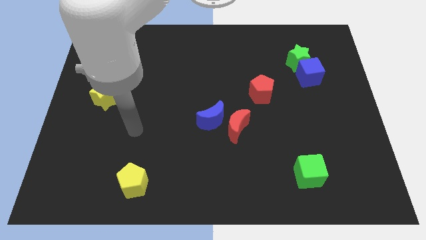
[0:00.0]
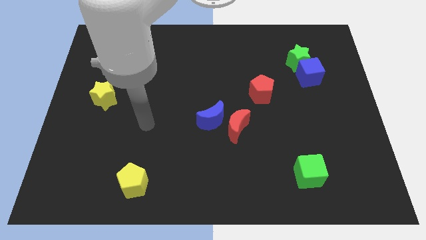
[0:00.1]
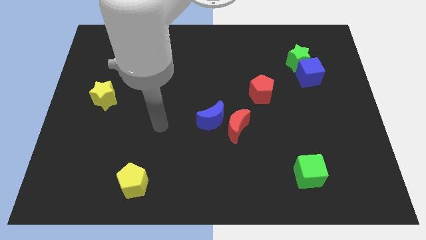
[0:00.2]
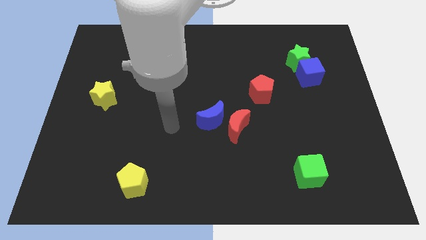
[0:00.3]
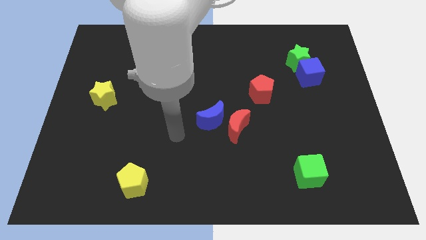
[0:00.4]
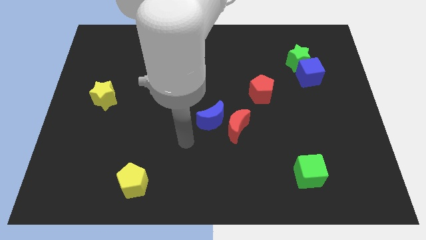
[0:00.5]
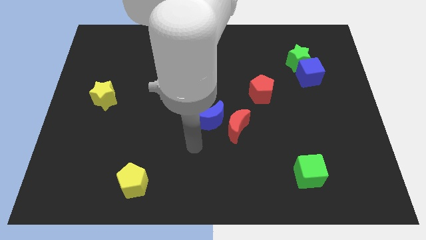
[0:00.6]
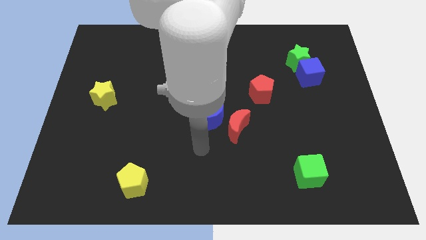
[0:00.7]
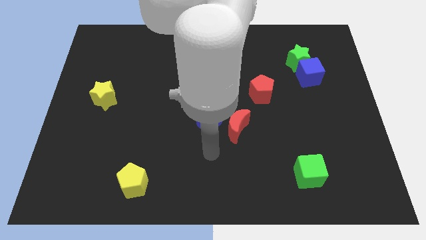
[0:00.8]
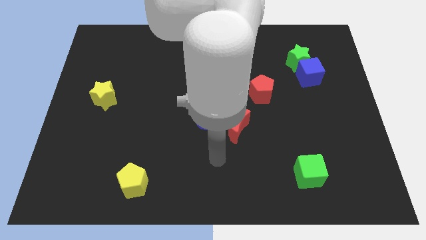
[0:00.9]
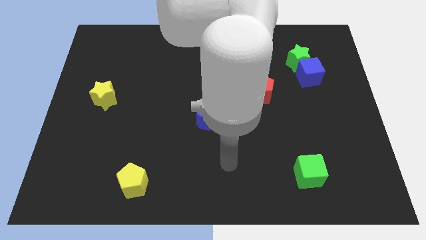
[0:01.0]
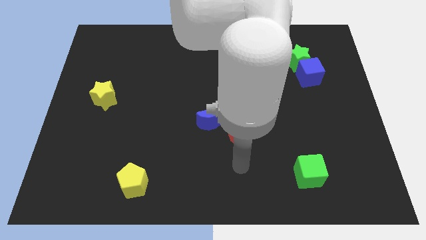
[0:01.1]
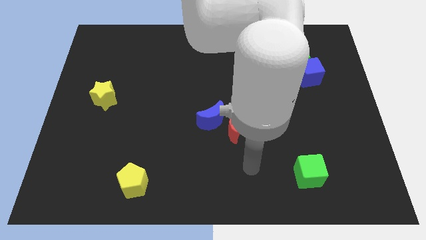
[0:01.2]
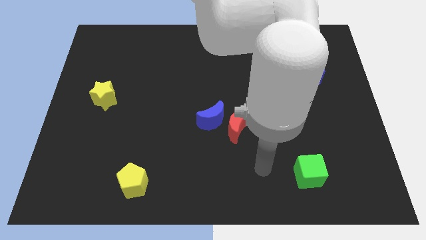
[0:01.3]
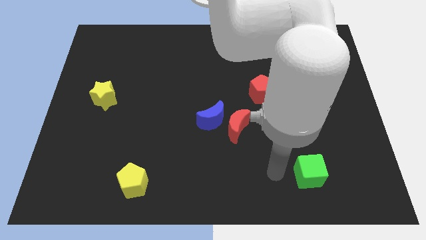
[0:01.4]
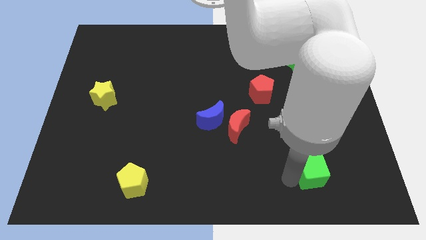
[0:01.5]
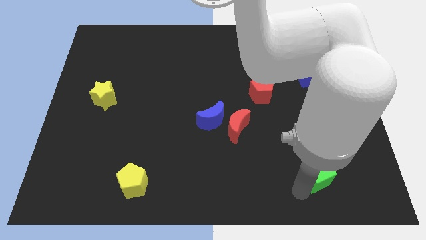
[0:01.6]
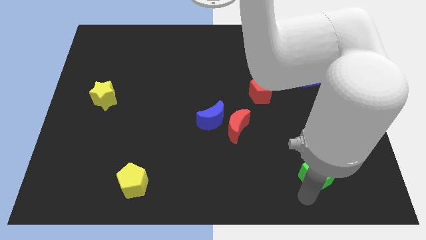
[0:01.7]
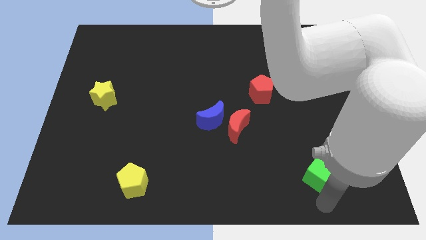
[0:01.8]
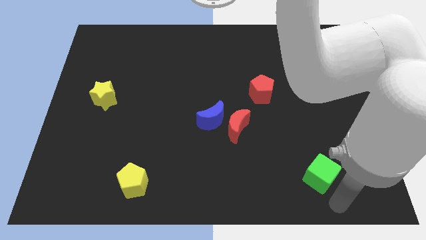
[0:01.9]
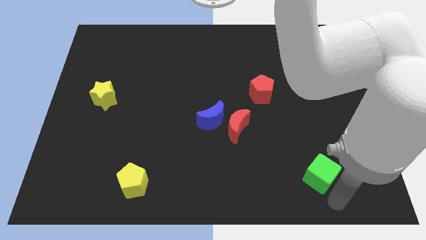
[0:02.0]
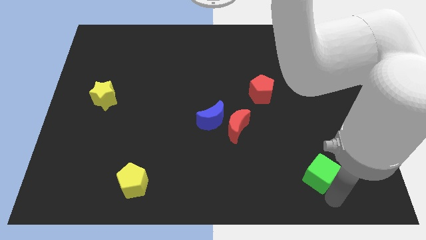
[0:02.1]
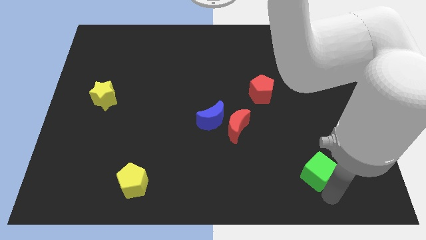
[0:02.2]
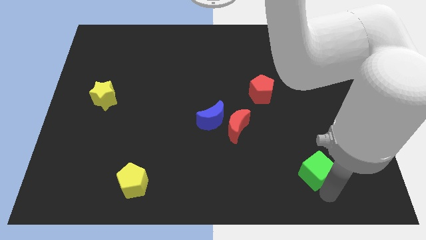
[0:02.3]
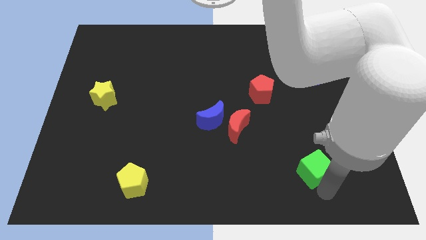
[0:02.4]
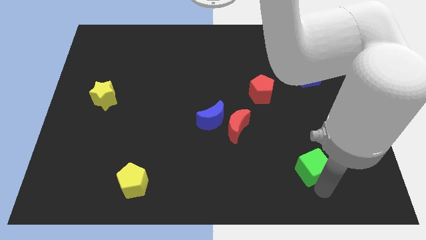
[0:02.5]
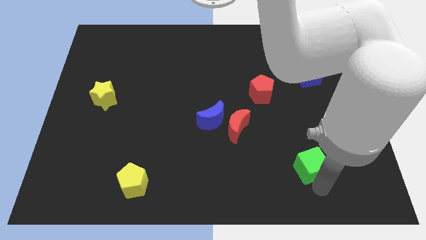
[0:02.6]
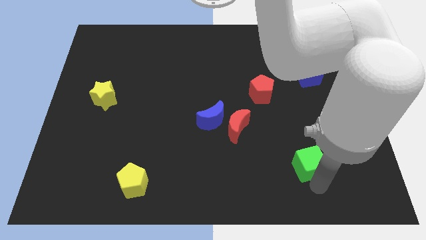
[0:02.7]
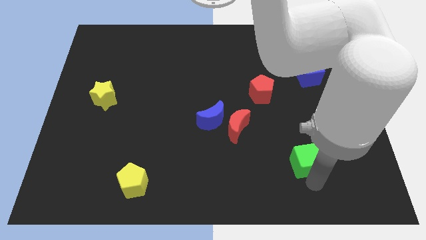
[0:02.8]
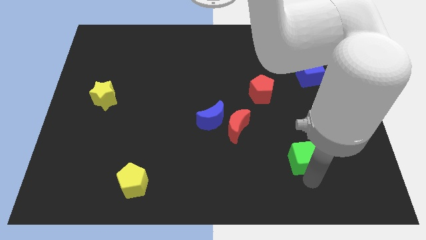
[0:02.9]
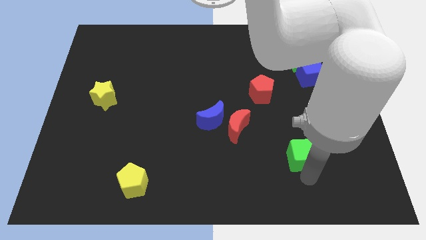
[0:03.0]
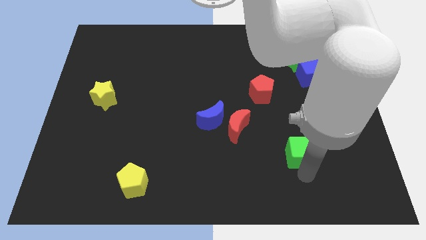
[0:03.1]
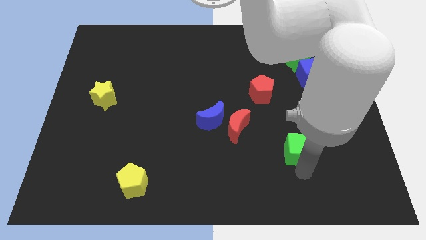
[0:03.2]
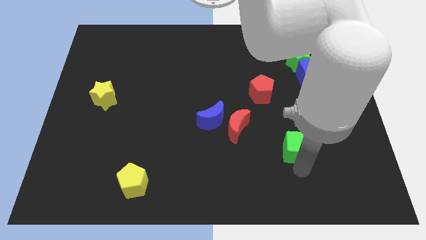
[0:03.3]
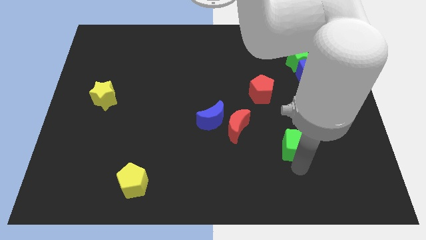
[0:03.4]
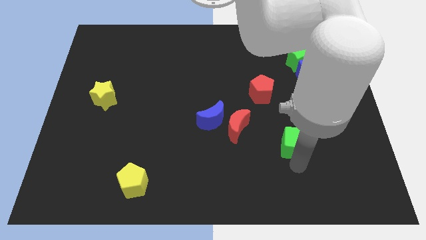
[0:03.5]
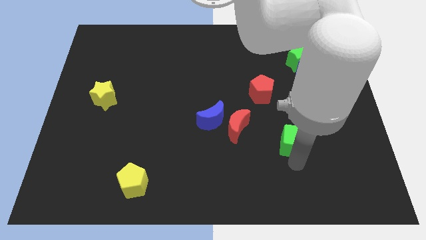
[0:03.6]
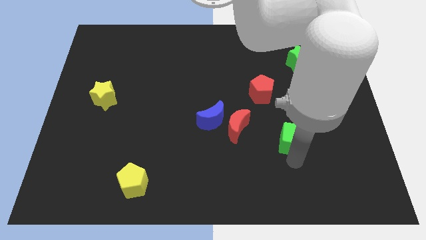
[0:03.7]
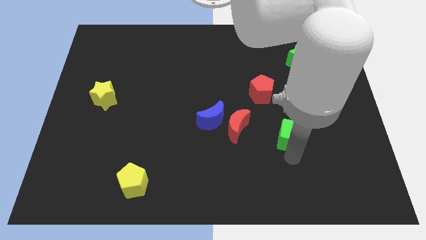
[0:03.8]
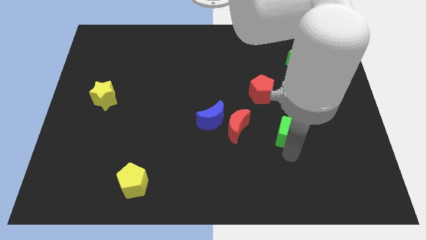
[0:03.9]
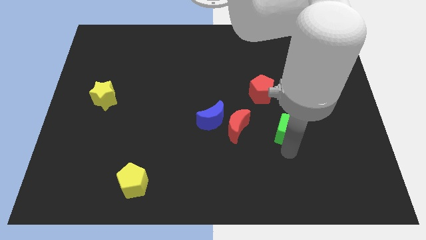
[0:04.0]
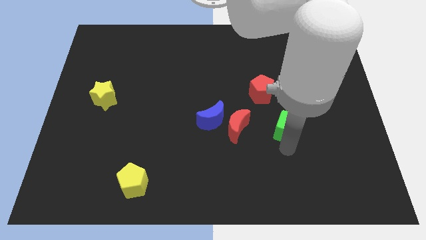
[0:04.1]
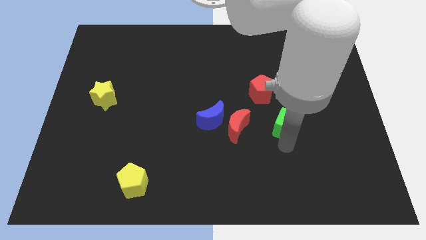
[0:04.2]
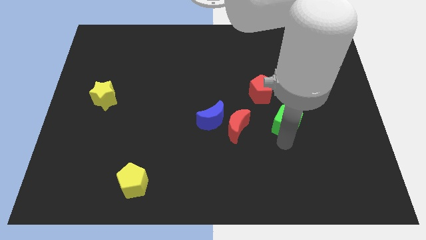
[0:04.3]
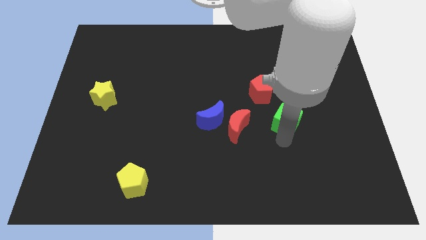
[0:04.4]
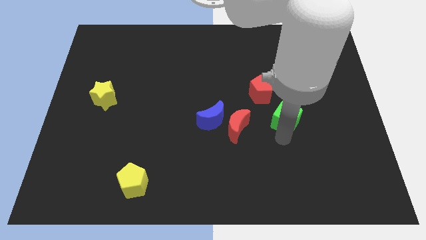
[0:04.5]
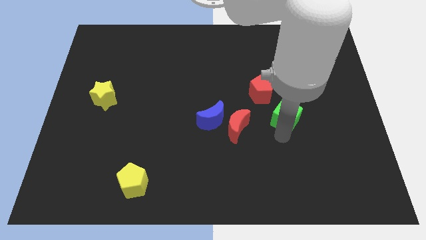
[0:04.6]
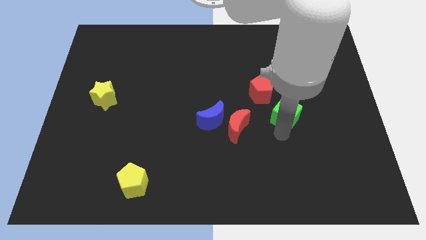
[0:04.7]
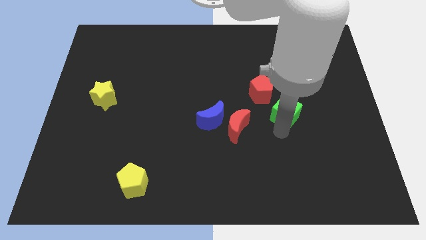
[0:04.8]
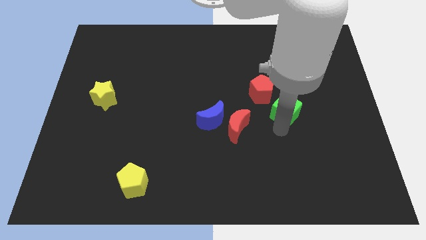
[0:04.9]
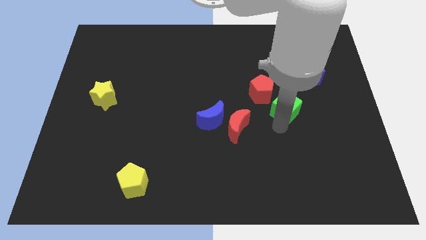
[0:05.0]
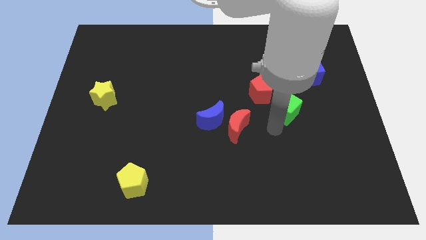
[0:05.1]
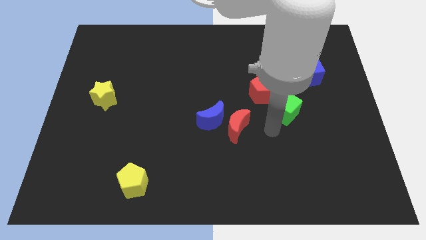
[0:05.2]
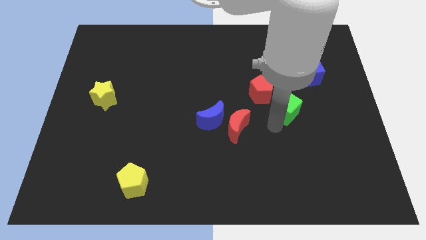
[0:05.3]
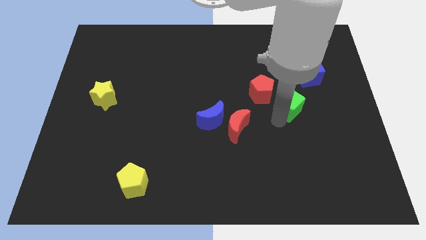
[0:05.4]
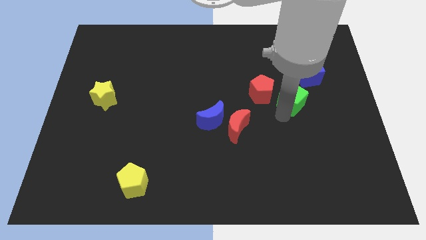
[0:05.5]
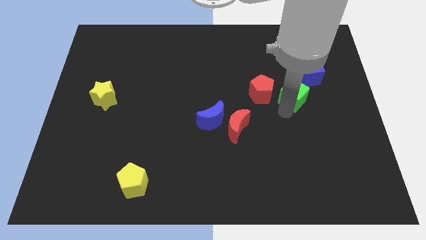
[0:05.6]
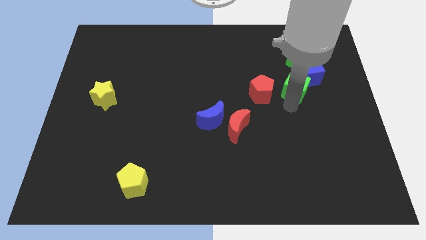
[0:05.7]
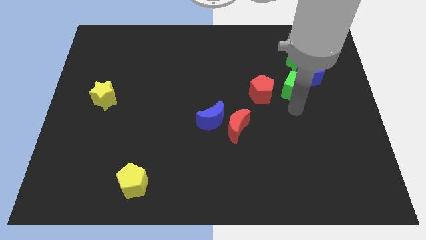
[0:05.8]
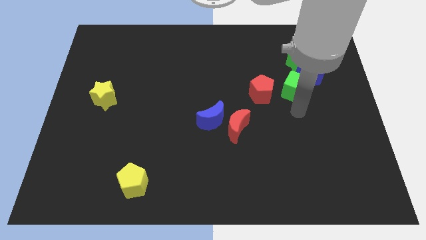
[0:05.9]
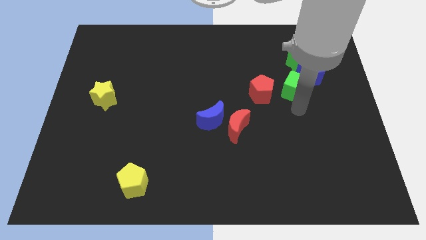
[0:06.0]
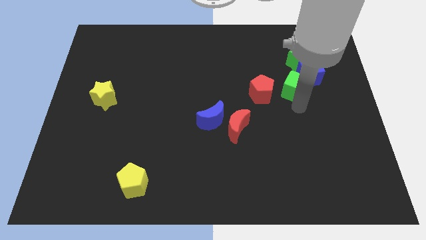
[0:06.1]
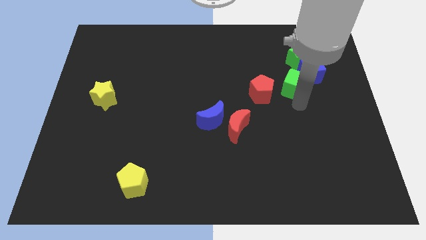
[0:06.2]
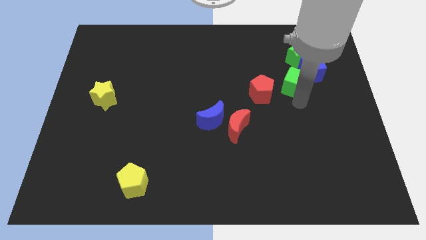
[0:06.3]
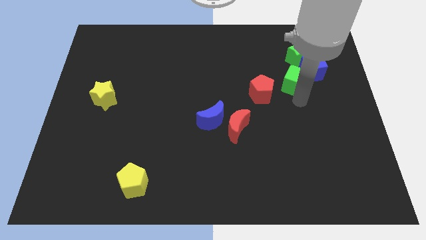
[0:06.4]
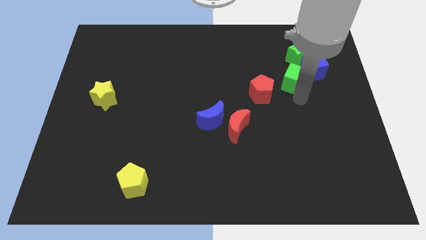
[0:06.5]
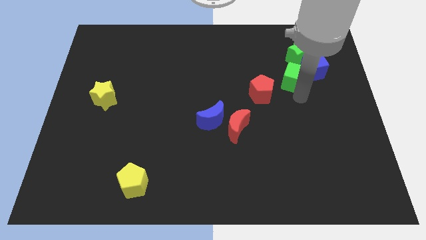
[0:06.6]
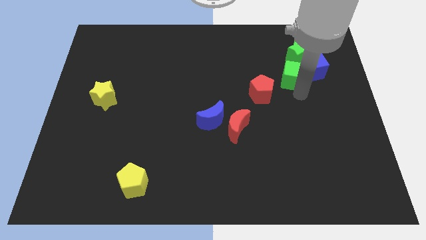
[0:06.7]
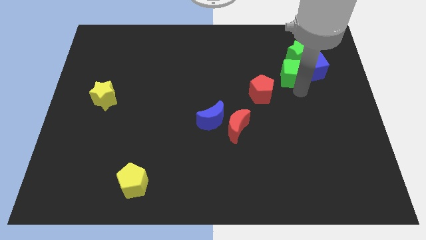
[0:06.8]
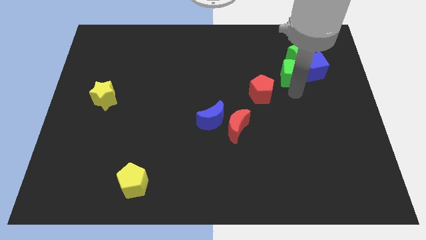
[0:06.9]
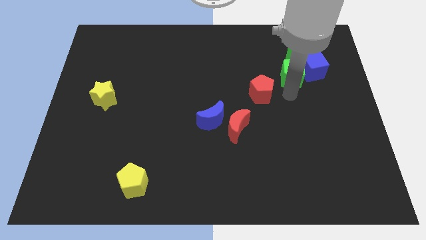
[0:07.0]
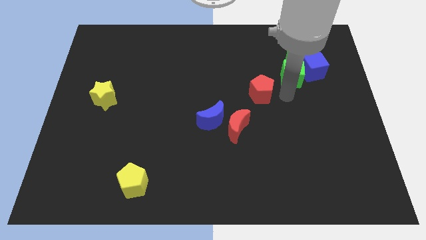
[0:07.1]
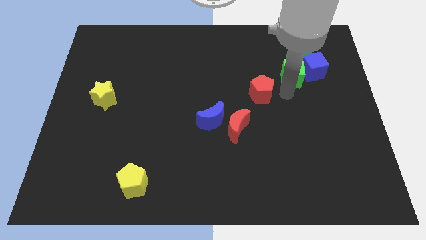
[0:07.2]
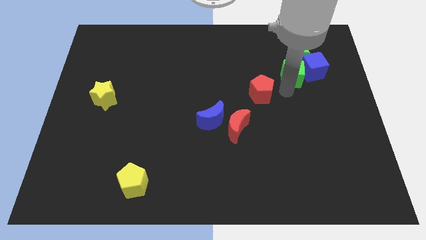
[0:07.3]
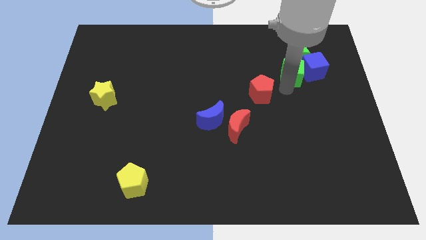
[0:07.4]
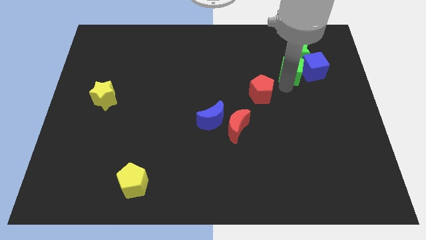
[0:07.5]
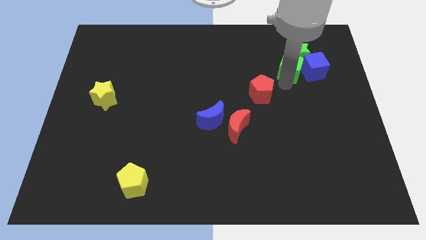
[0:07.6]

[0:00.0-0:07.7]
slide the green cube to the green star

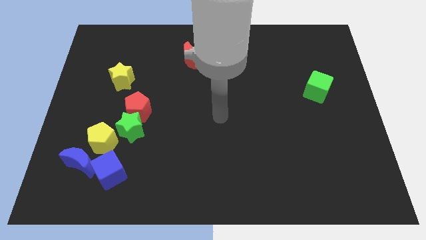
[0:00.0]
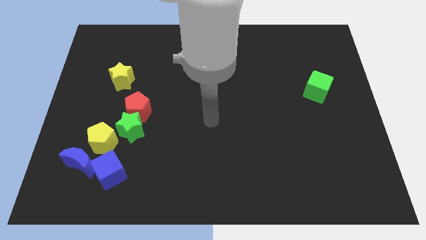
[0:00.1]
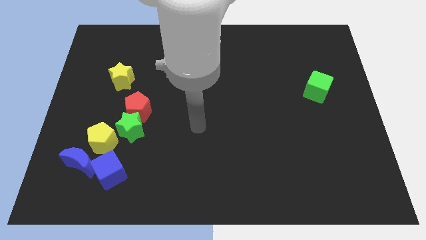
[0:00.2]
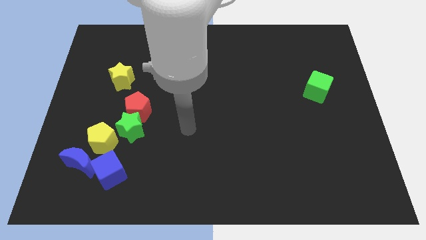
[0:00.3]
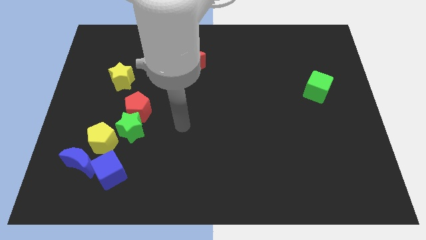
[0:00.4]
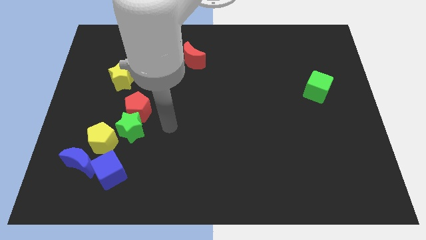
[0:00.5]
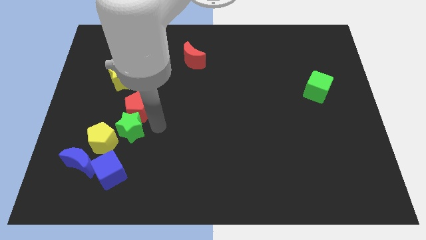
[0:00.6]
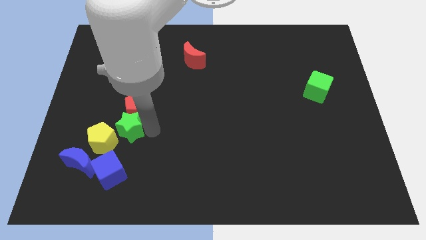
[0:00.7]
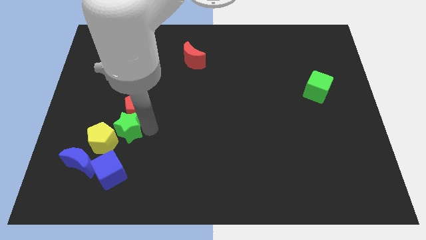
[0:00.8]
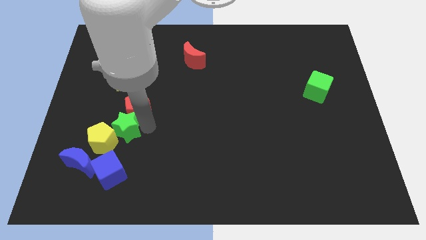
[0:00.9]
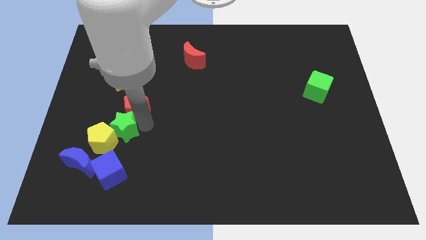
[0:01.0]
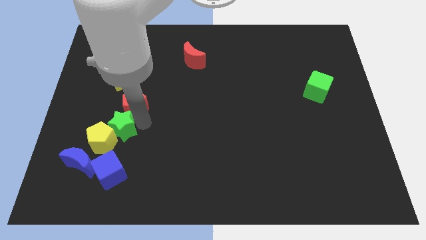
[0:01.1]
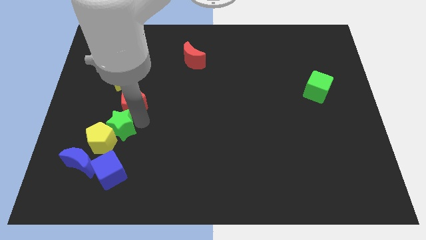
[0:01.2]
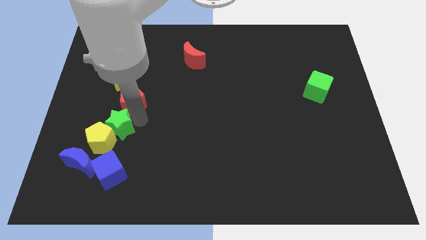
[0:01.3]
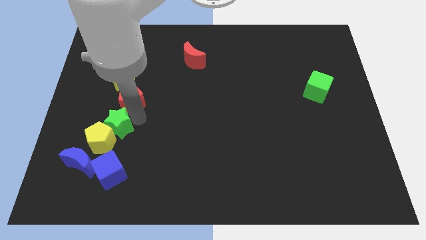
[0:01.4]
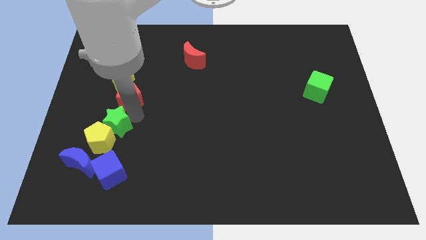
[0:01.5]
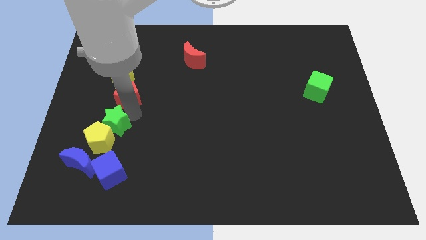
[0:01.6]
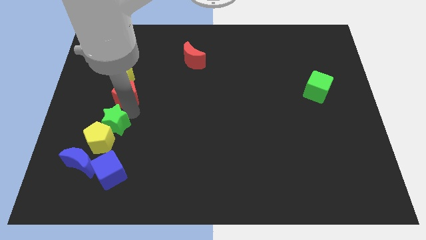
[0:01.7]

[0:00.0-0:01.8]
push the red pentagon to the yellow star
